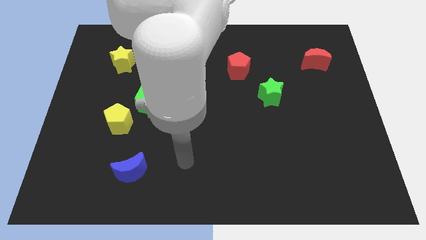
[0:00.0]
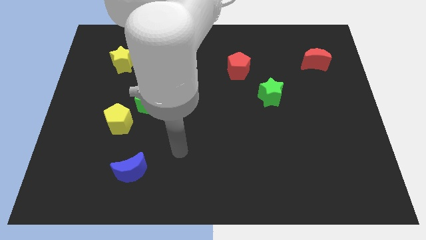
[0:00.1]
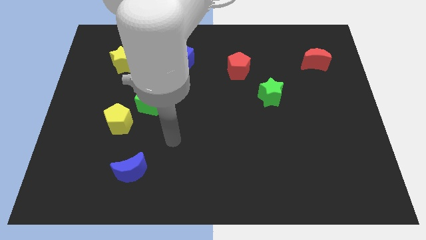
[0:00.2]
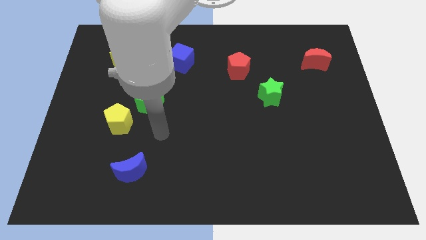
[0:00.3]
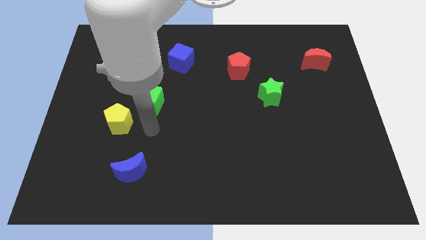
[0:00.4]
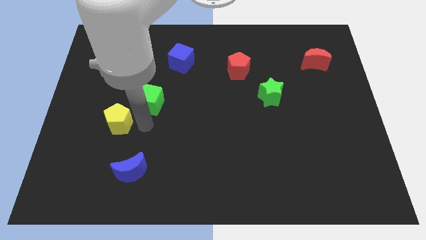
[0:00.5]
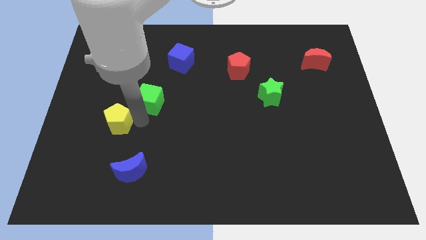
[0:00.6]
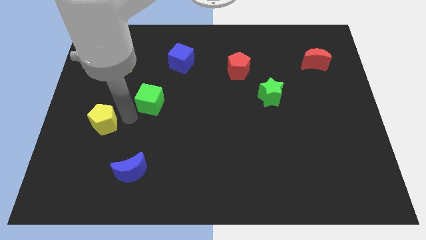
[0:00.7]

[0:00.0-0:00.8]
separate the green cube from the yellow pentagon

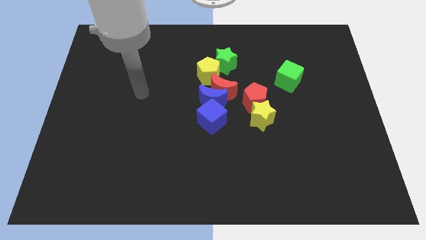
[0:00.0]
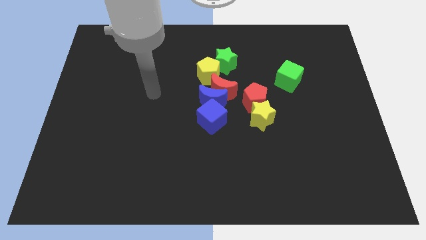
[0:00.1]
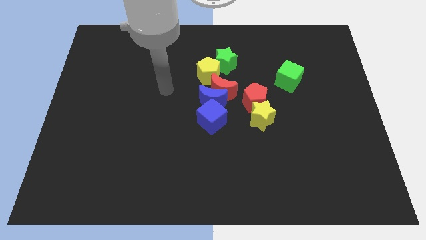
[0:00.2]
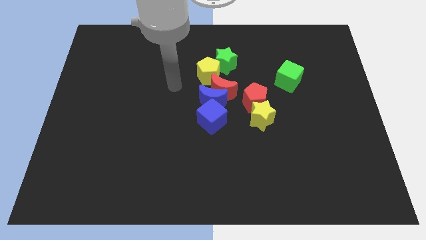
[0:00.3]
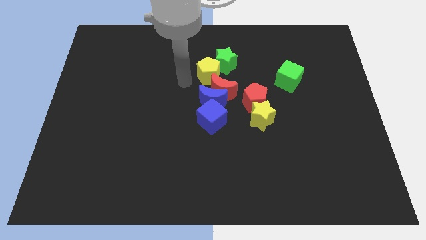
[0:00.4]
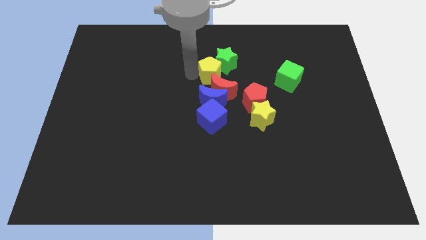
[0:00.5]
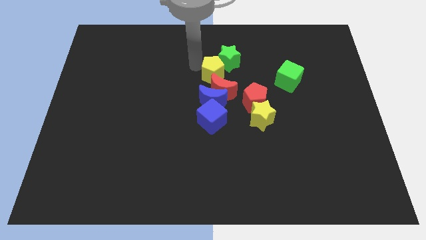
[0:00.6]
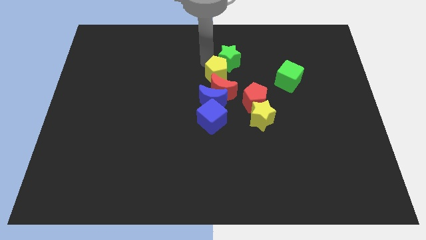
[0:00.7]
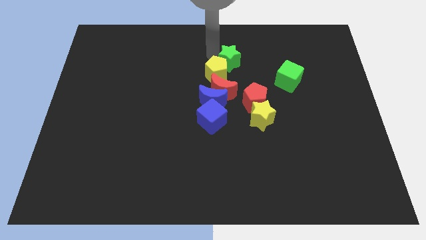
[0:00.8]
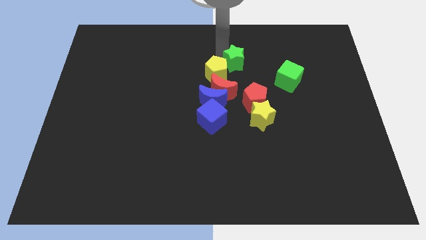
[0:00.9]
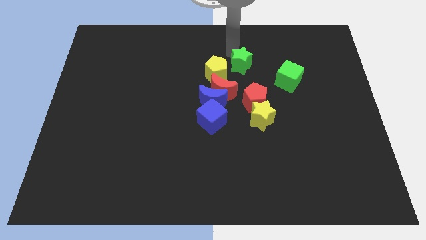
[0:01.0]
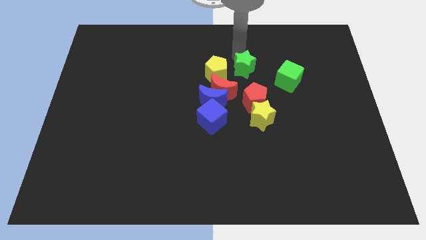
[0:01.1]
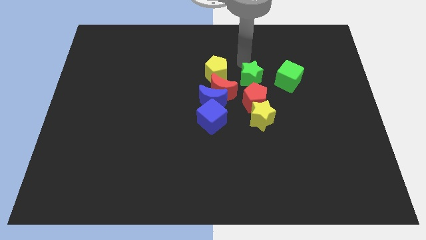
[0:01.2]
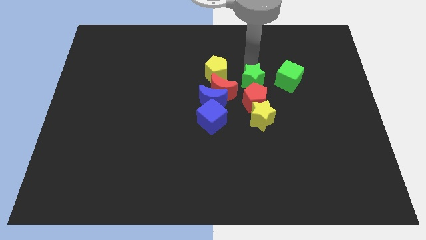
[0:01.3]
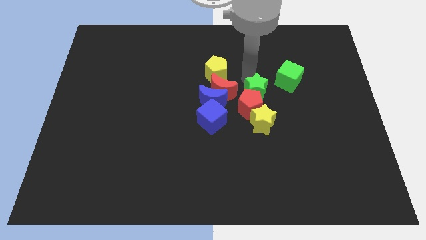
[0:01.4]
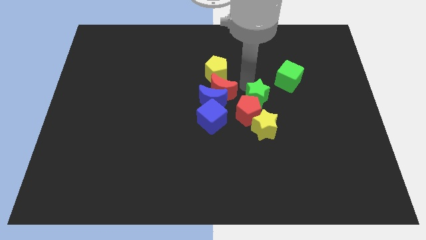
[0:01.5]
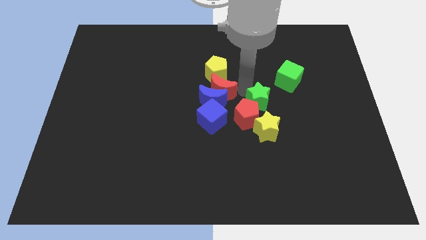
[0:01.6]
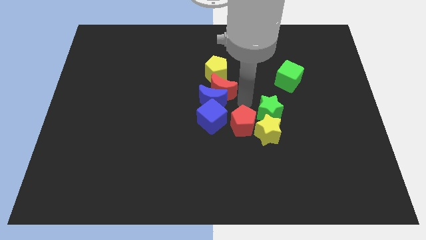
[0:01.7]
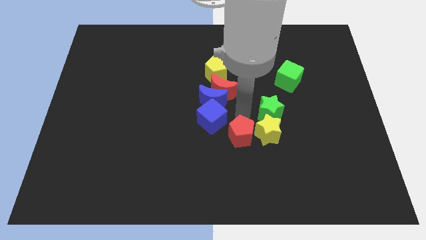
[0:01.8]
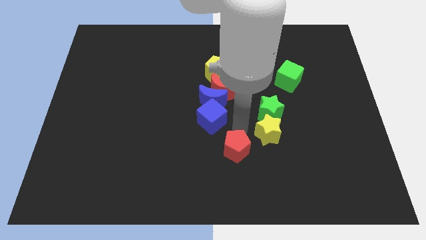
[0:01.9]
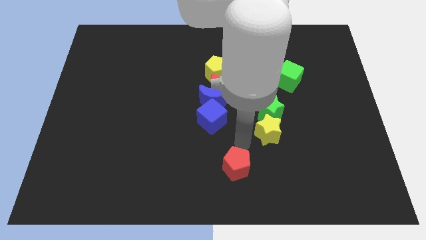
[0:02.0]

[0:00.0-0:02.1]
pull the yellow star apart from the red pentagon

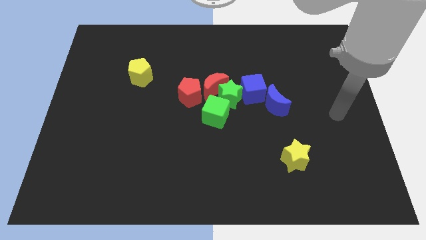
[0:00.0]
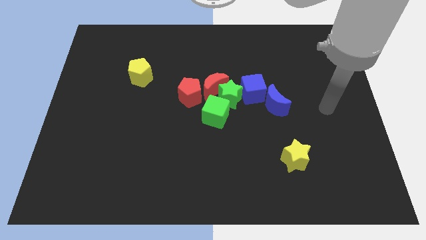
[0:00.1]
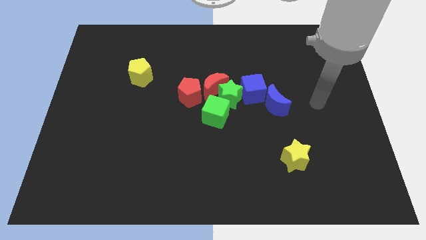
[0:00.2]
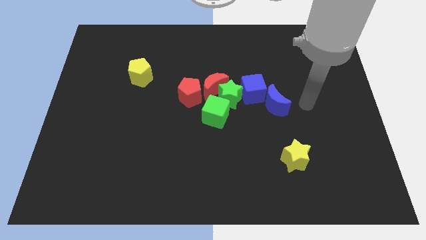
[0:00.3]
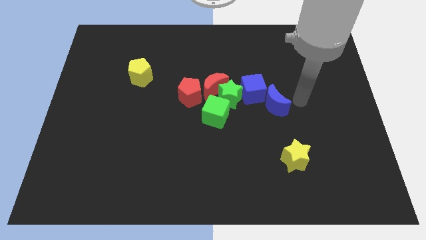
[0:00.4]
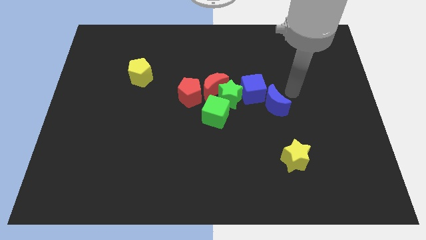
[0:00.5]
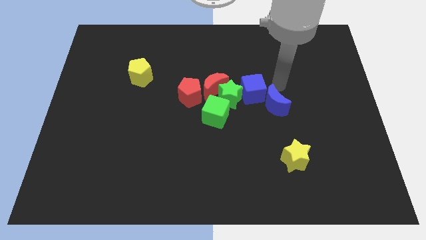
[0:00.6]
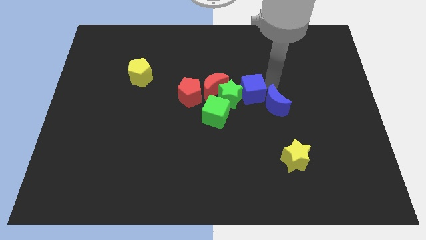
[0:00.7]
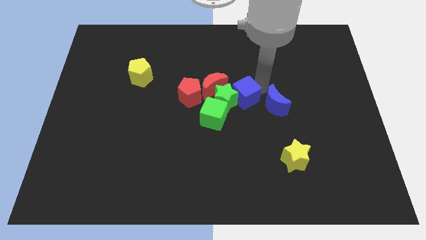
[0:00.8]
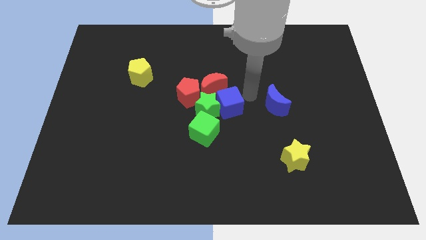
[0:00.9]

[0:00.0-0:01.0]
move the blue moon away from the blue cube

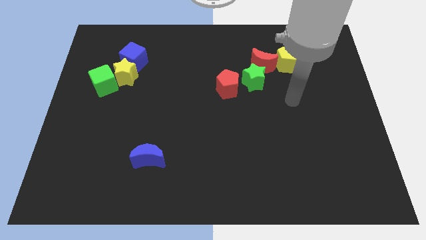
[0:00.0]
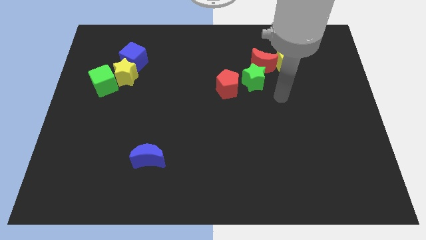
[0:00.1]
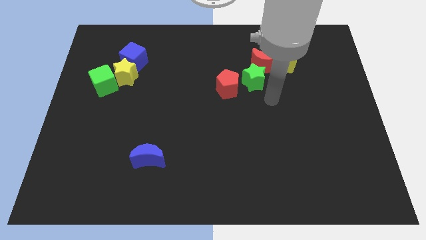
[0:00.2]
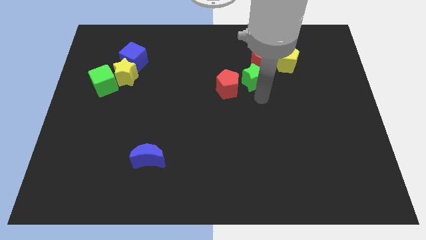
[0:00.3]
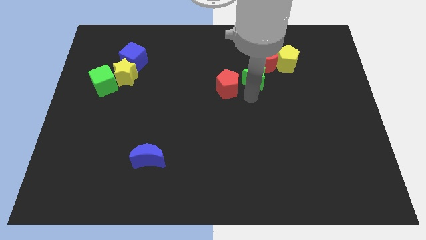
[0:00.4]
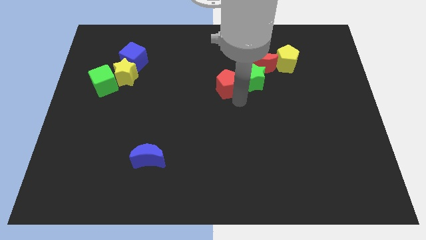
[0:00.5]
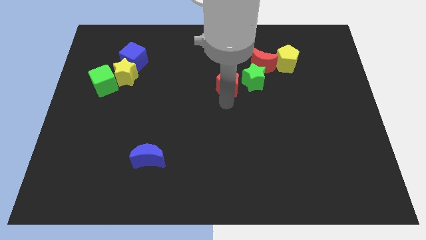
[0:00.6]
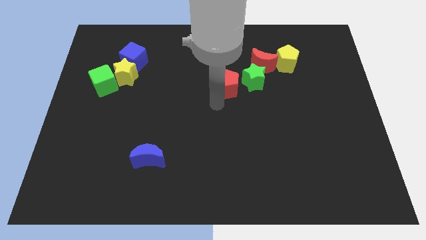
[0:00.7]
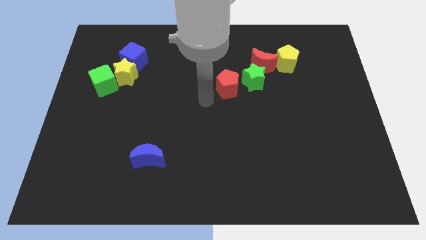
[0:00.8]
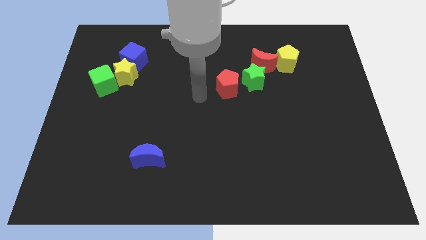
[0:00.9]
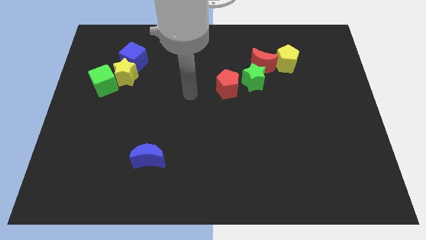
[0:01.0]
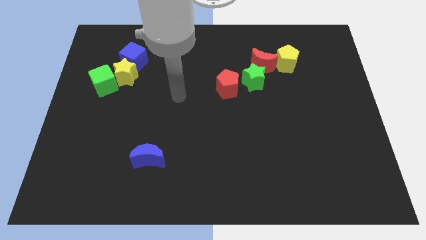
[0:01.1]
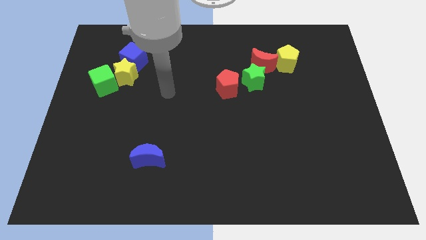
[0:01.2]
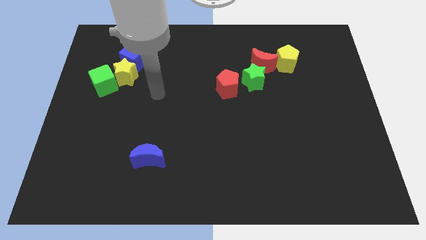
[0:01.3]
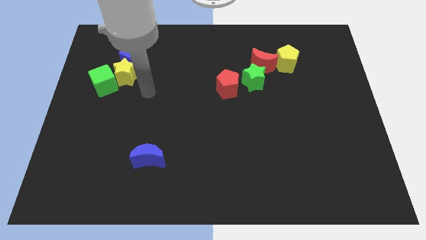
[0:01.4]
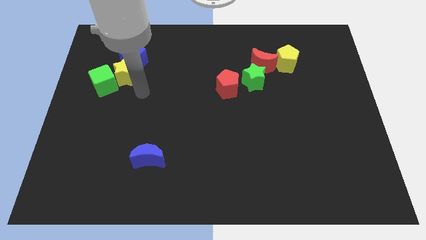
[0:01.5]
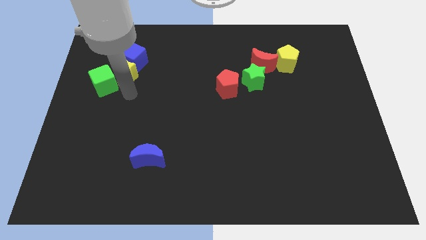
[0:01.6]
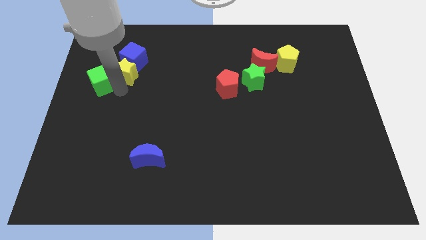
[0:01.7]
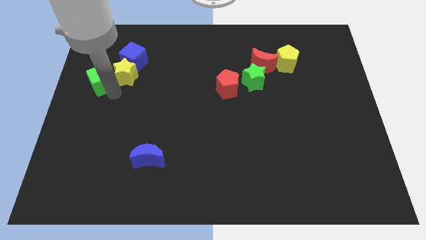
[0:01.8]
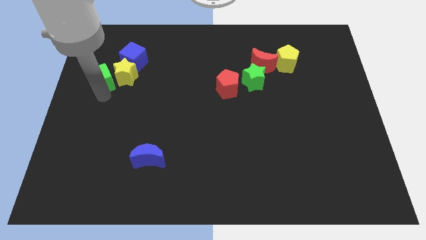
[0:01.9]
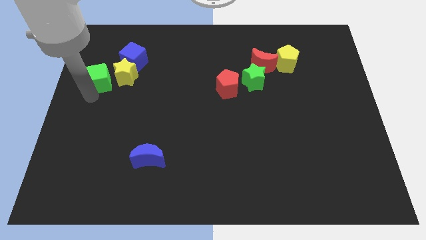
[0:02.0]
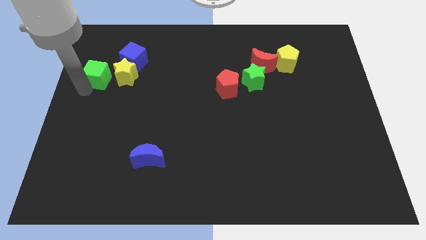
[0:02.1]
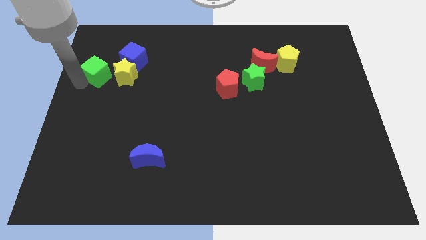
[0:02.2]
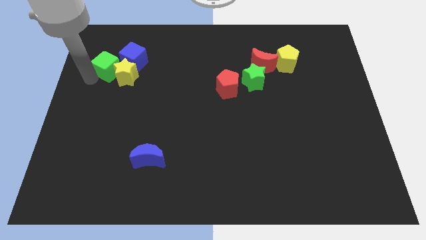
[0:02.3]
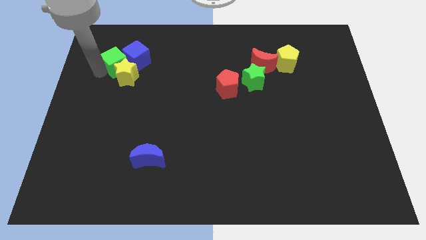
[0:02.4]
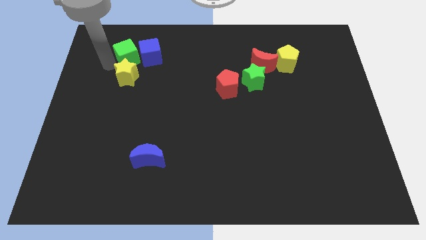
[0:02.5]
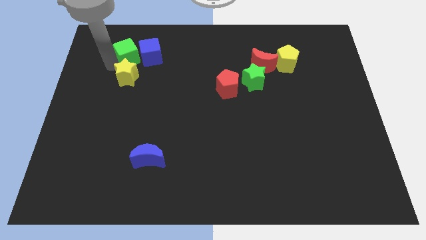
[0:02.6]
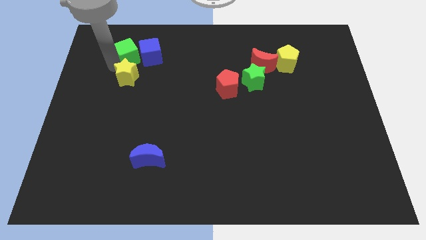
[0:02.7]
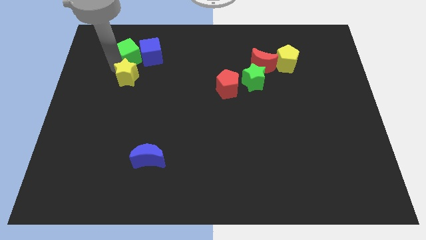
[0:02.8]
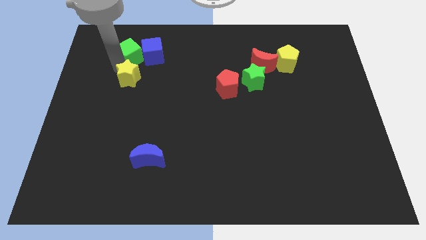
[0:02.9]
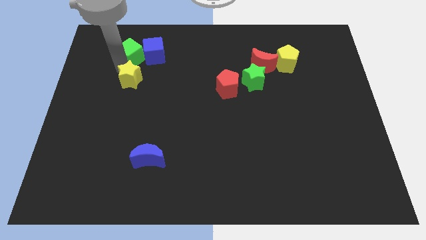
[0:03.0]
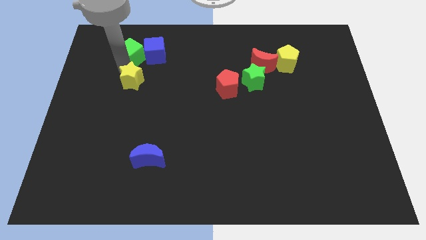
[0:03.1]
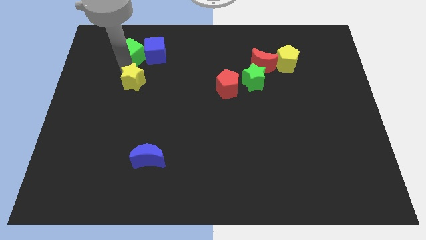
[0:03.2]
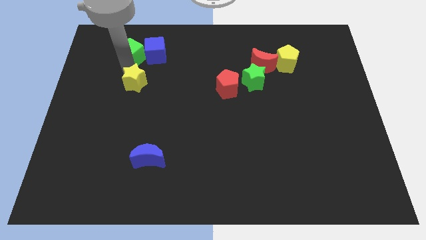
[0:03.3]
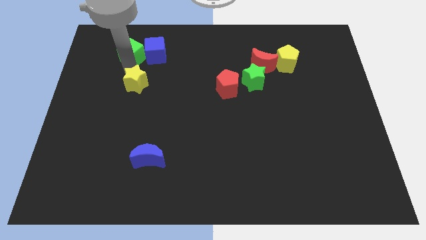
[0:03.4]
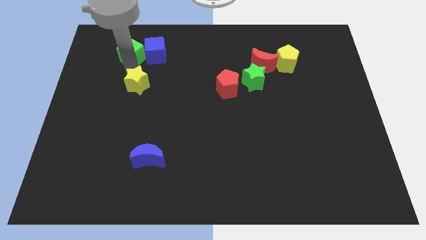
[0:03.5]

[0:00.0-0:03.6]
pull the yellow star apart from the green cube and blue cube

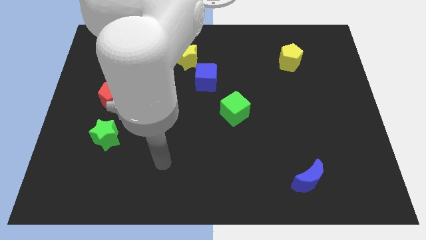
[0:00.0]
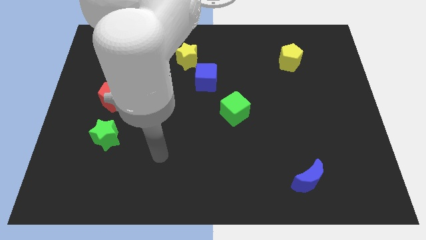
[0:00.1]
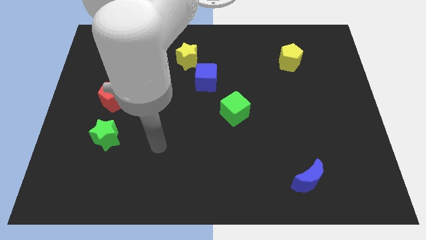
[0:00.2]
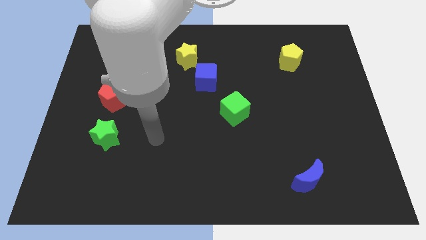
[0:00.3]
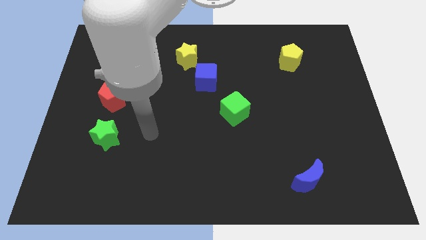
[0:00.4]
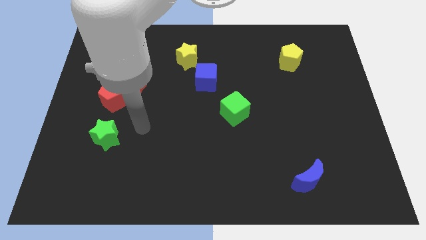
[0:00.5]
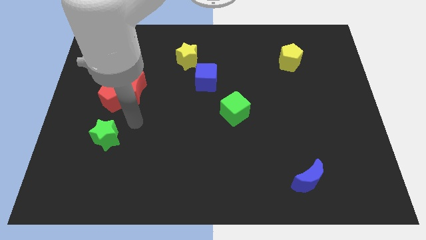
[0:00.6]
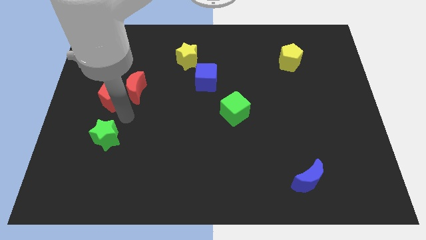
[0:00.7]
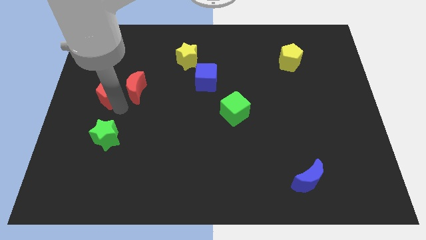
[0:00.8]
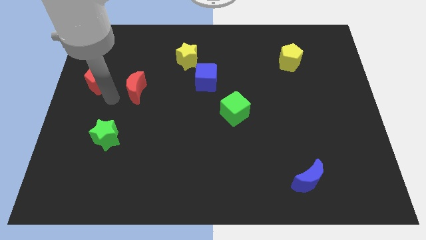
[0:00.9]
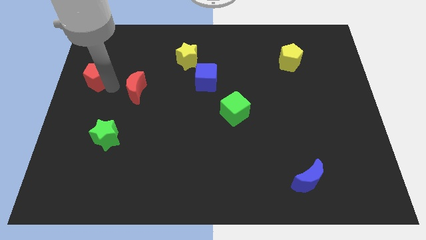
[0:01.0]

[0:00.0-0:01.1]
pull the red moon apart from the red pentagon

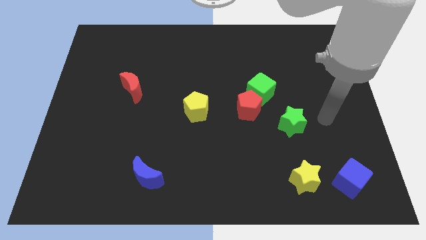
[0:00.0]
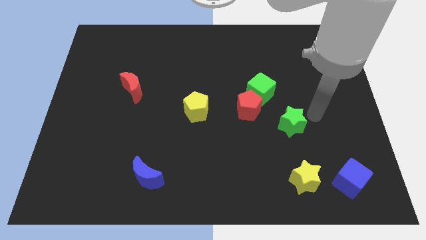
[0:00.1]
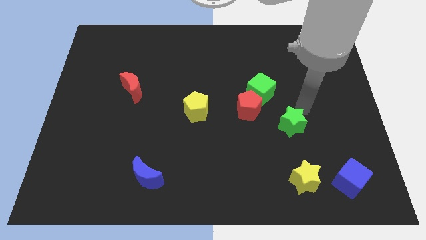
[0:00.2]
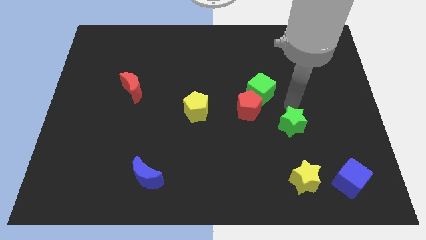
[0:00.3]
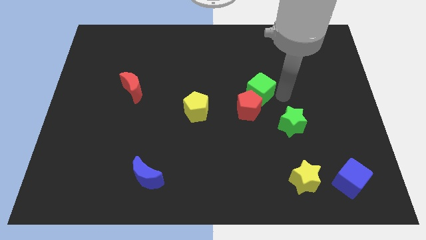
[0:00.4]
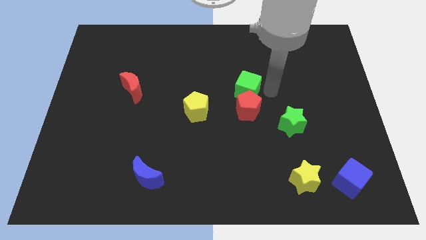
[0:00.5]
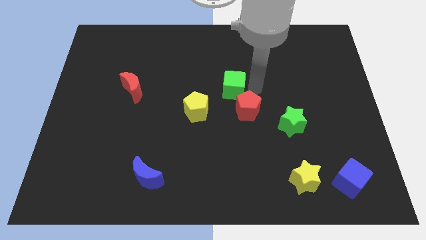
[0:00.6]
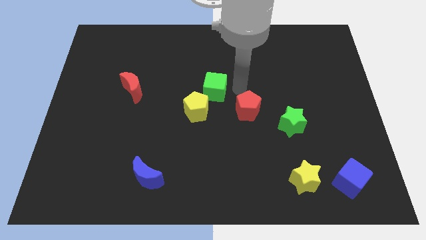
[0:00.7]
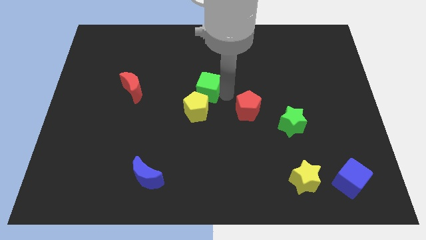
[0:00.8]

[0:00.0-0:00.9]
pull the red pentagon apart from the green cube
